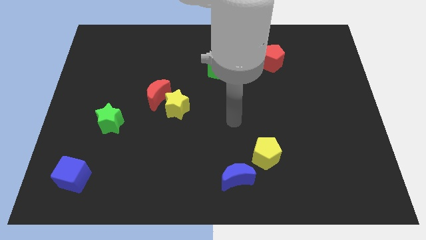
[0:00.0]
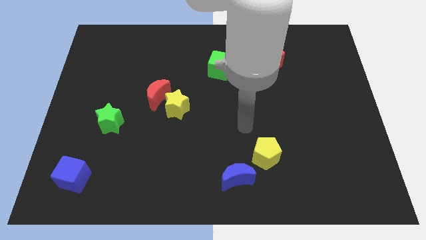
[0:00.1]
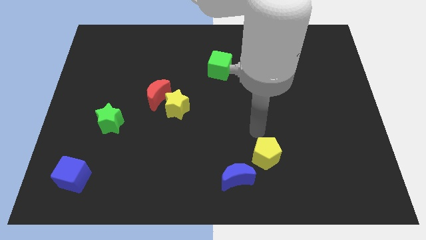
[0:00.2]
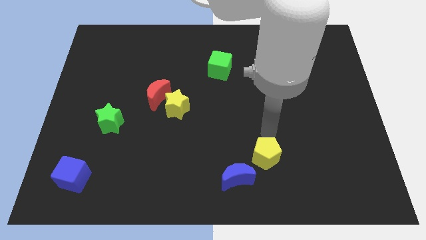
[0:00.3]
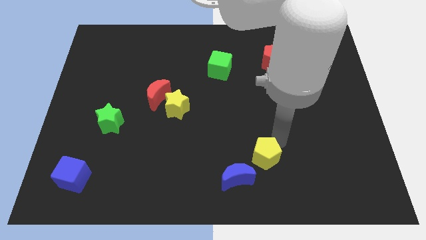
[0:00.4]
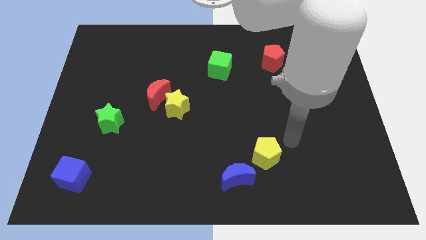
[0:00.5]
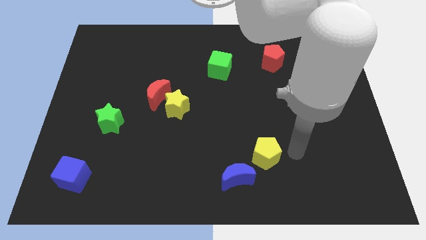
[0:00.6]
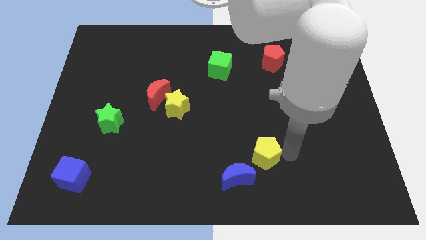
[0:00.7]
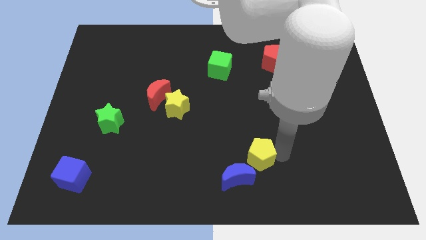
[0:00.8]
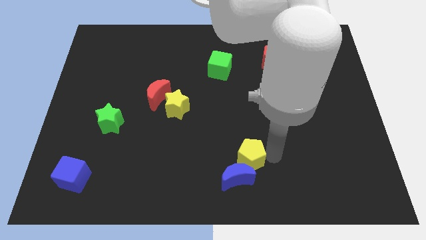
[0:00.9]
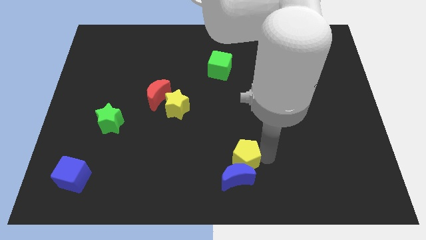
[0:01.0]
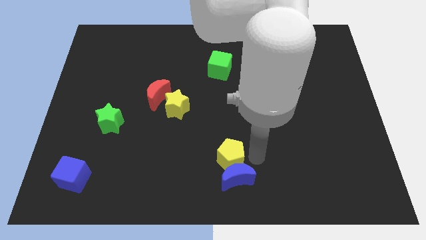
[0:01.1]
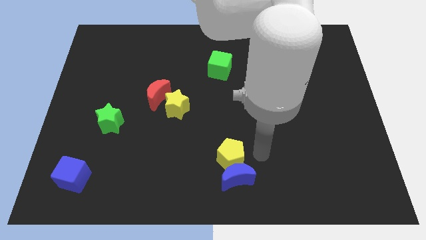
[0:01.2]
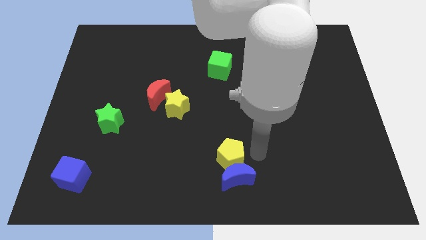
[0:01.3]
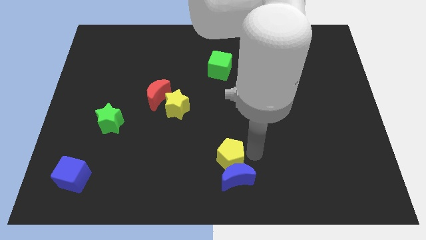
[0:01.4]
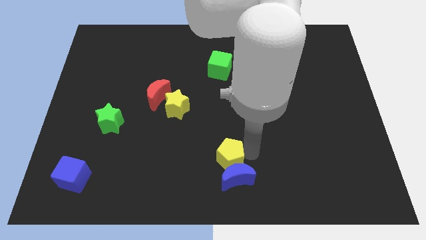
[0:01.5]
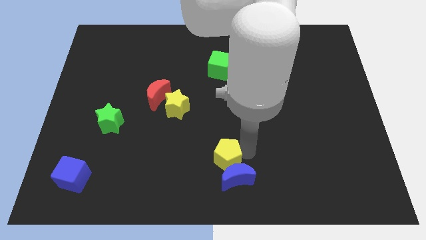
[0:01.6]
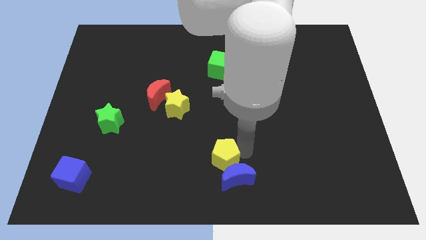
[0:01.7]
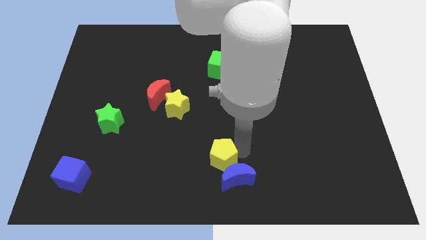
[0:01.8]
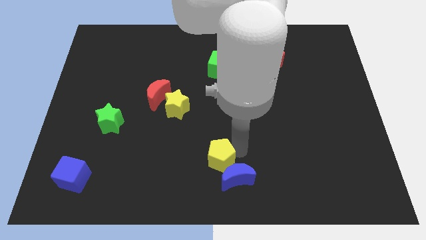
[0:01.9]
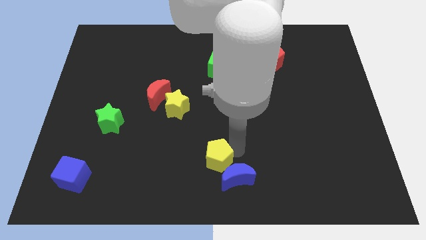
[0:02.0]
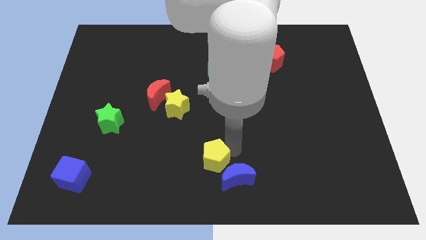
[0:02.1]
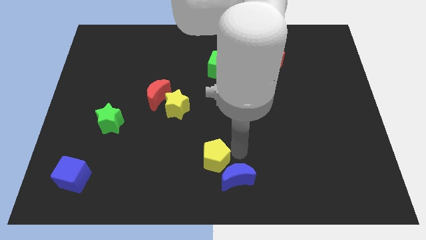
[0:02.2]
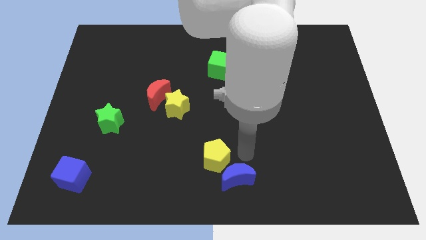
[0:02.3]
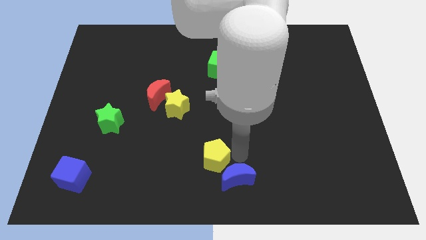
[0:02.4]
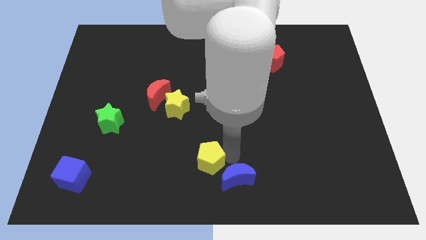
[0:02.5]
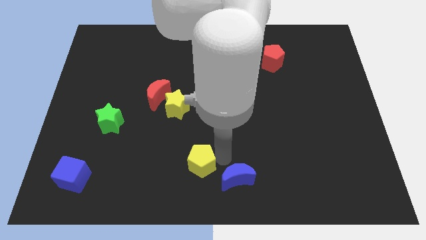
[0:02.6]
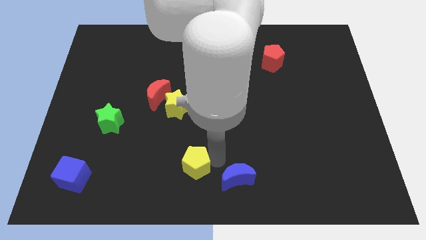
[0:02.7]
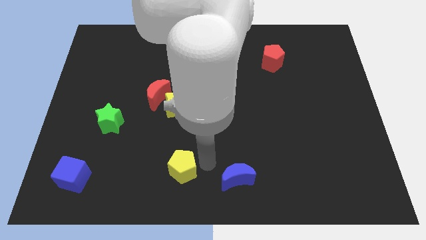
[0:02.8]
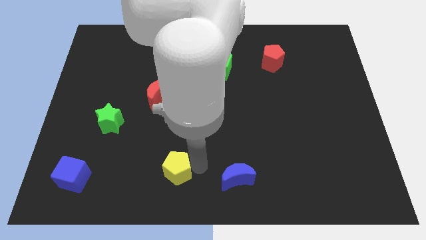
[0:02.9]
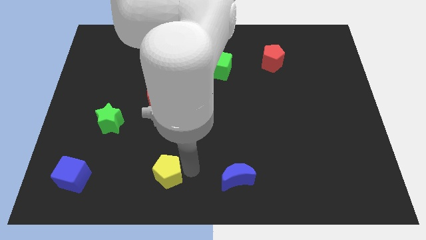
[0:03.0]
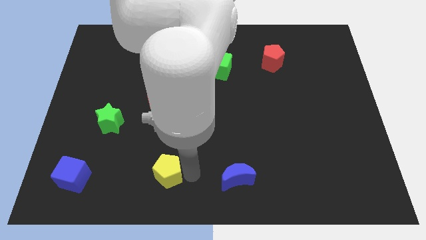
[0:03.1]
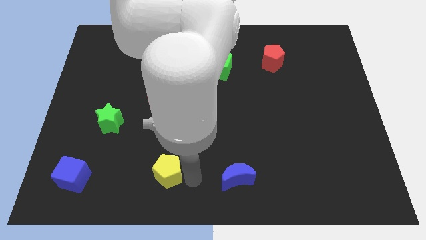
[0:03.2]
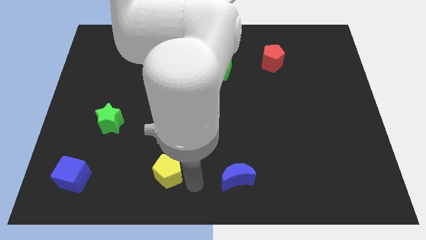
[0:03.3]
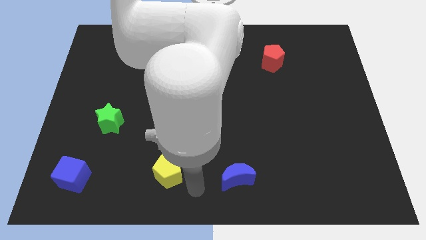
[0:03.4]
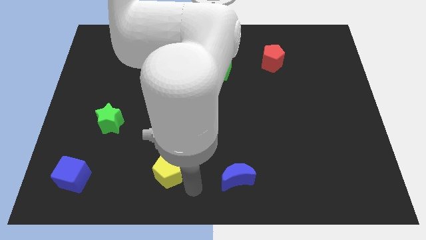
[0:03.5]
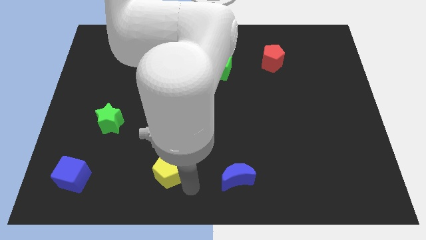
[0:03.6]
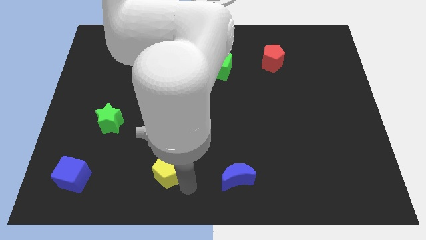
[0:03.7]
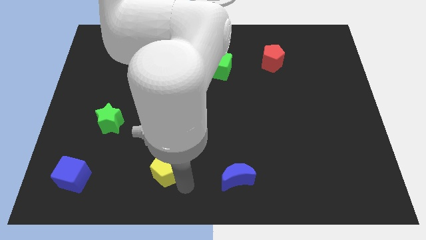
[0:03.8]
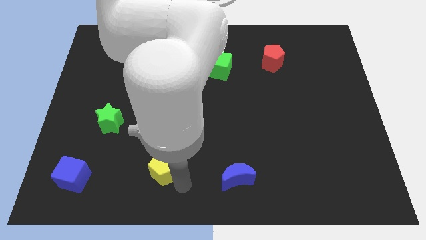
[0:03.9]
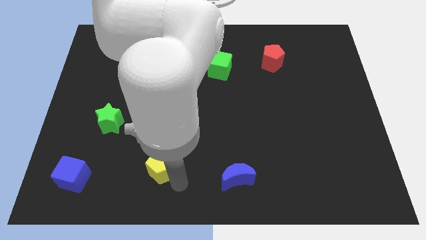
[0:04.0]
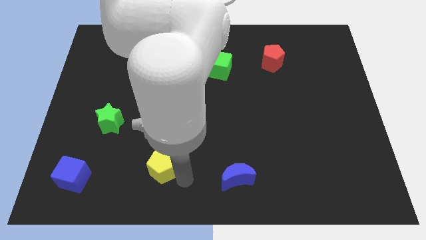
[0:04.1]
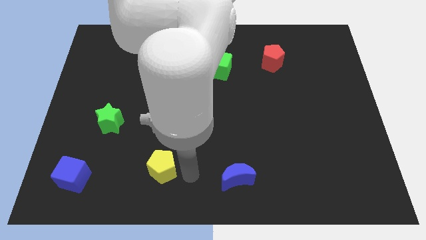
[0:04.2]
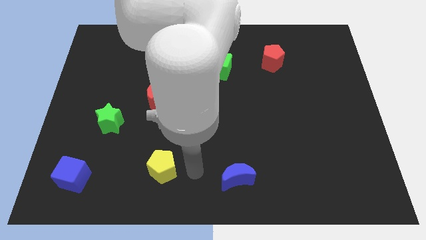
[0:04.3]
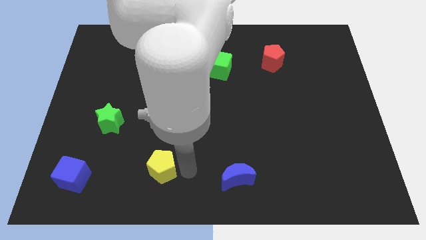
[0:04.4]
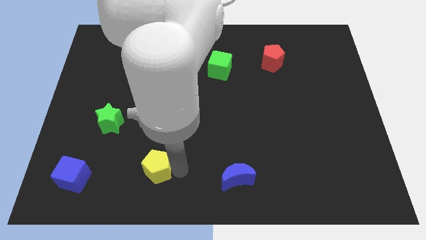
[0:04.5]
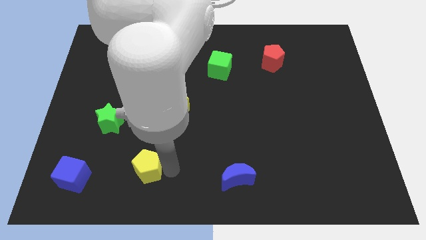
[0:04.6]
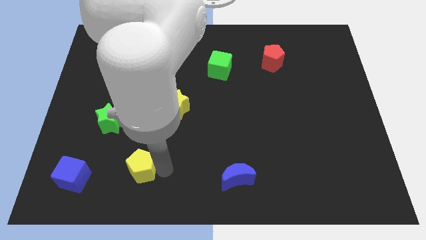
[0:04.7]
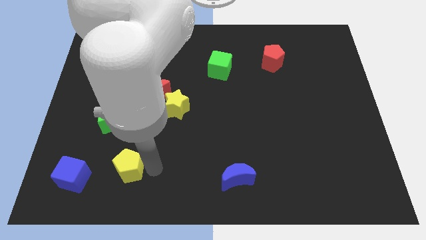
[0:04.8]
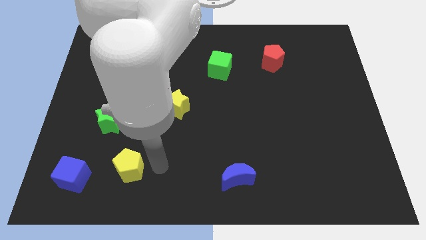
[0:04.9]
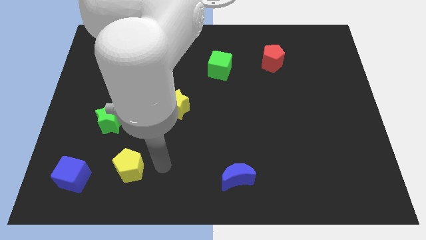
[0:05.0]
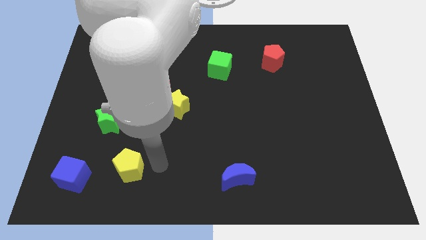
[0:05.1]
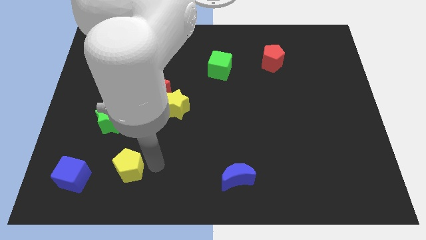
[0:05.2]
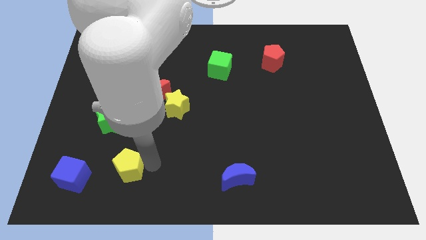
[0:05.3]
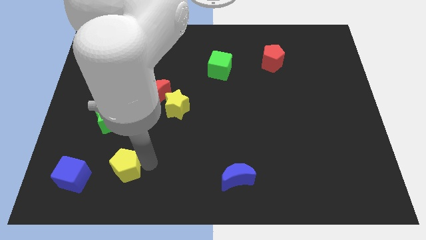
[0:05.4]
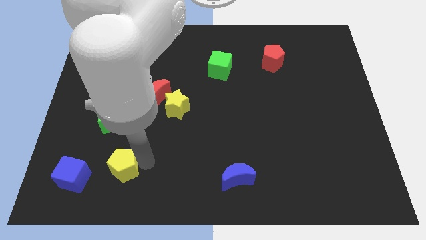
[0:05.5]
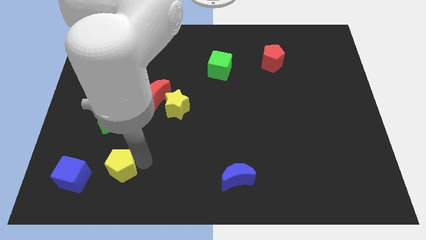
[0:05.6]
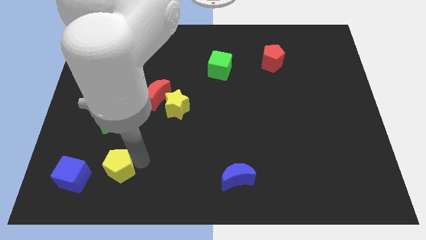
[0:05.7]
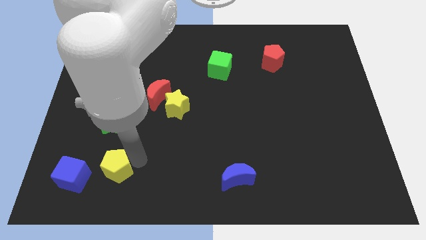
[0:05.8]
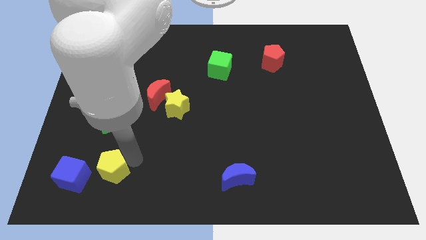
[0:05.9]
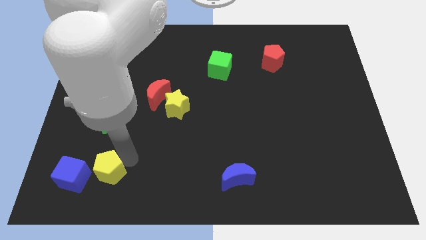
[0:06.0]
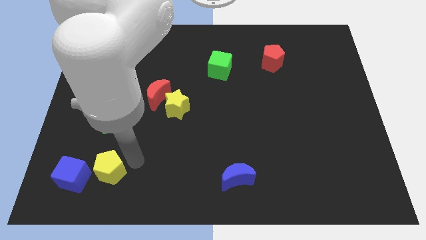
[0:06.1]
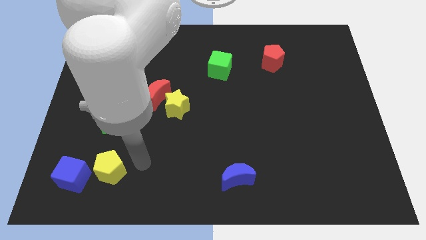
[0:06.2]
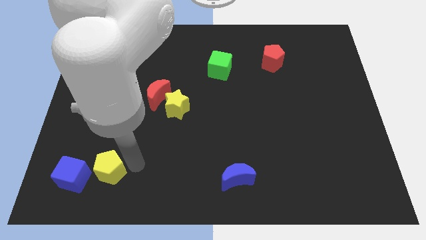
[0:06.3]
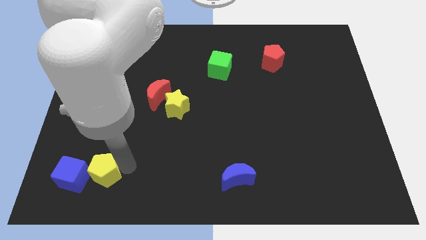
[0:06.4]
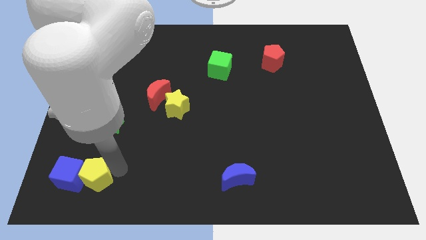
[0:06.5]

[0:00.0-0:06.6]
slide the yellow pentagon close to the blue cube
